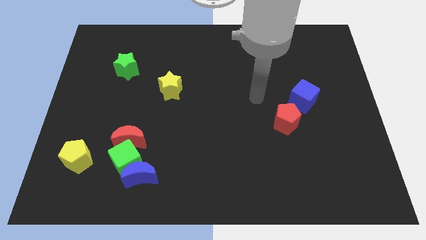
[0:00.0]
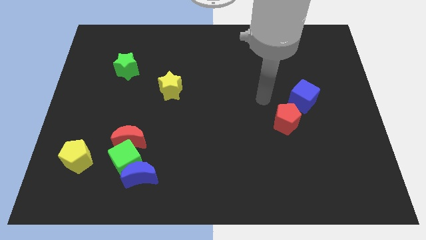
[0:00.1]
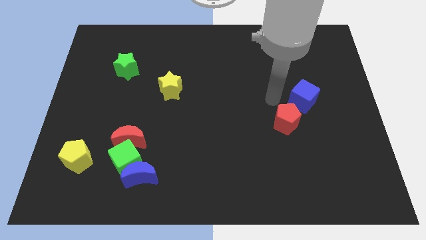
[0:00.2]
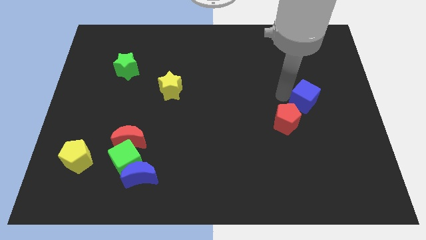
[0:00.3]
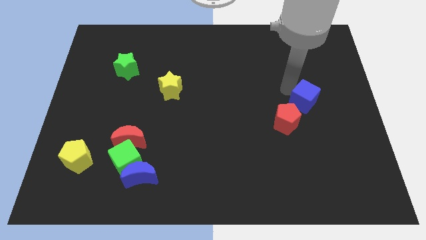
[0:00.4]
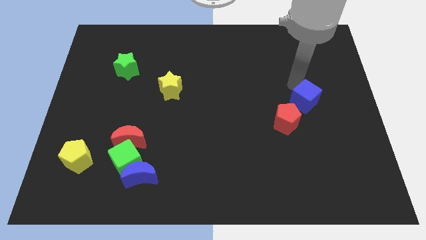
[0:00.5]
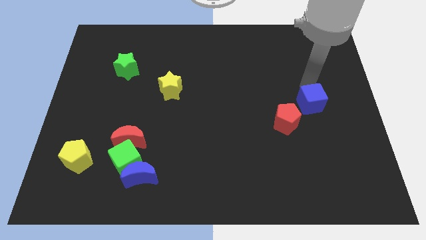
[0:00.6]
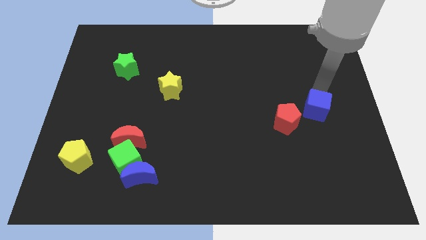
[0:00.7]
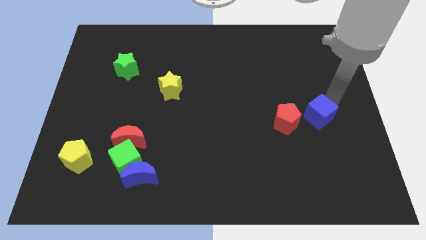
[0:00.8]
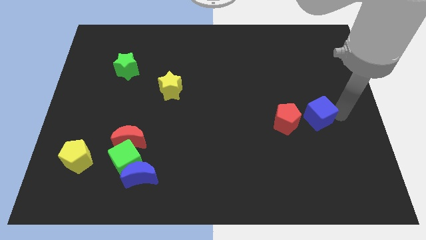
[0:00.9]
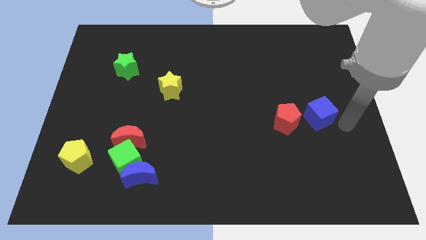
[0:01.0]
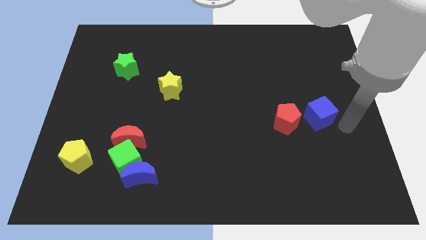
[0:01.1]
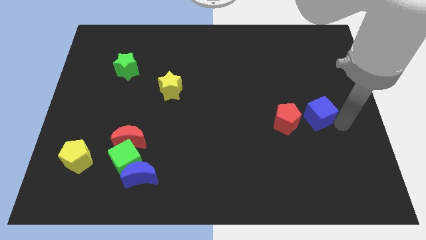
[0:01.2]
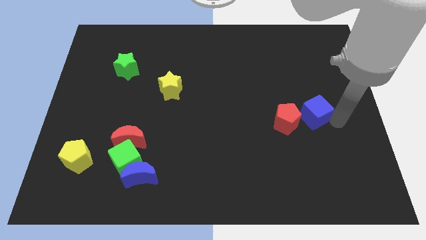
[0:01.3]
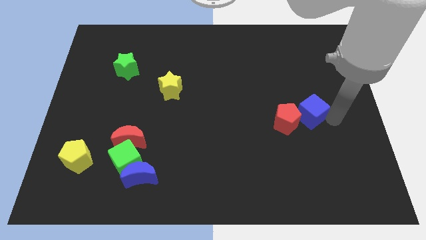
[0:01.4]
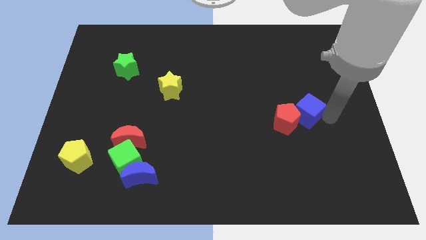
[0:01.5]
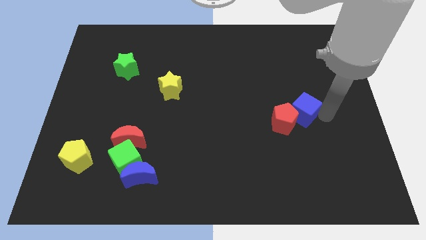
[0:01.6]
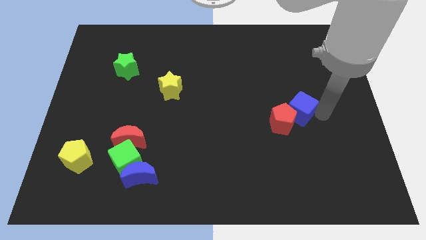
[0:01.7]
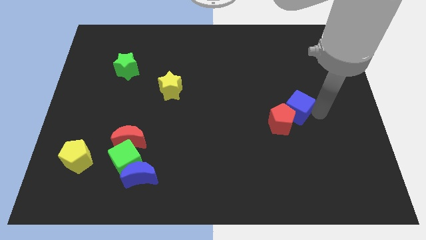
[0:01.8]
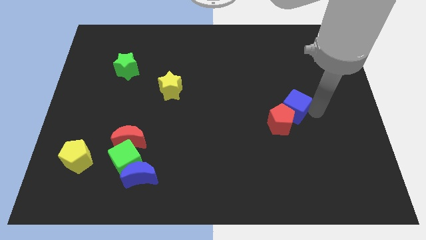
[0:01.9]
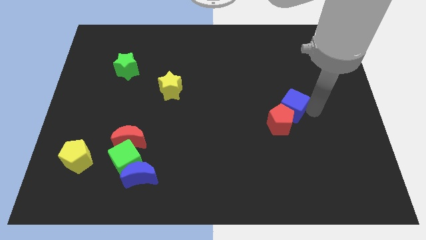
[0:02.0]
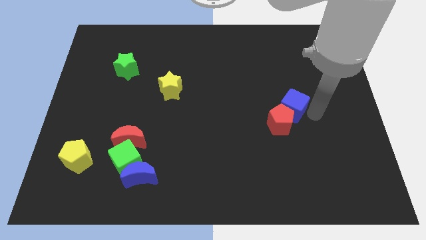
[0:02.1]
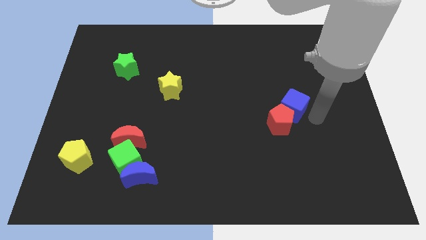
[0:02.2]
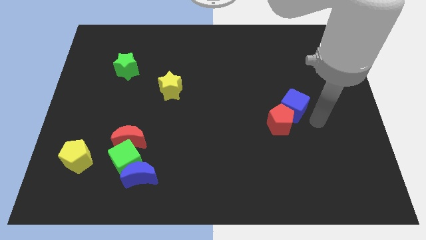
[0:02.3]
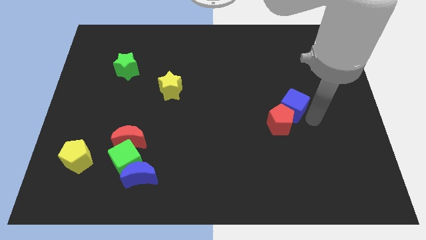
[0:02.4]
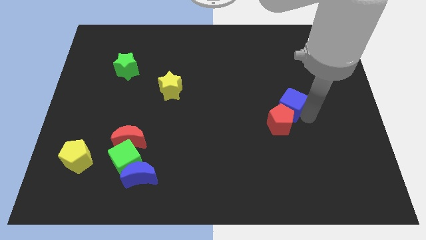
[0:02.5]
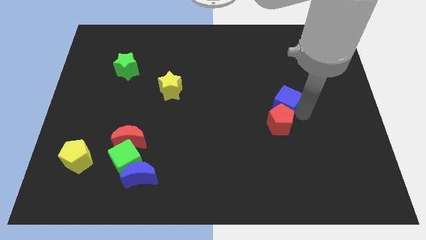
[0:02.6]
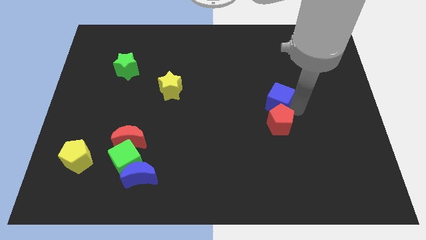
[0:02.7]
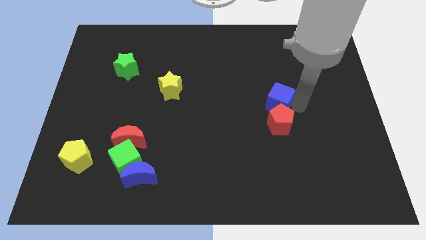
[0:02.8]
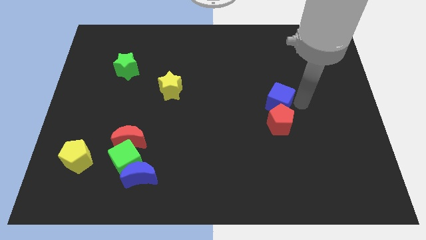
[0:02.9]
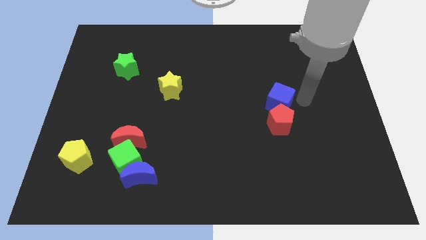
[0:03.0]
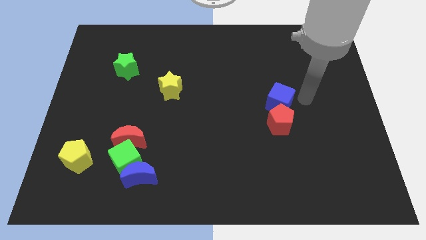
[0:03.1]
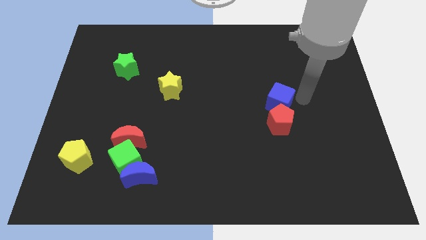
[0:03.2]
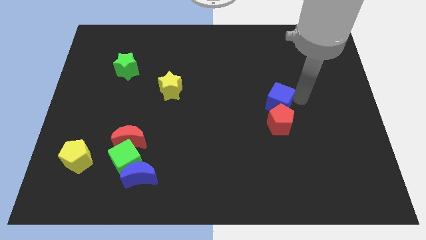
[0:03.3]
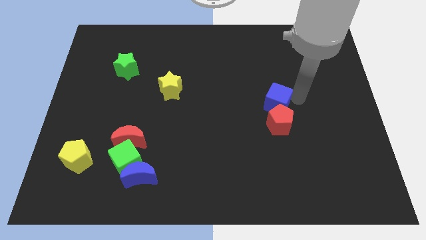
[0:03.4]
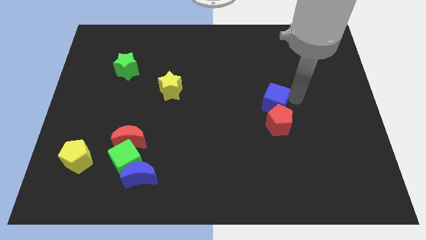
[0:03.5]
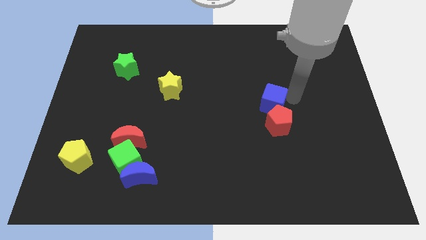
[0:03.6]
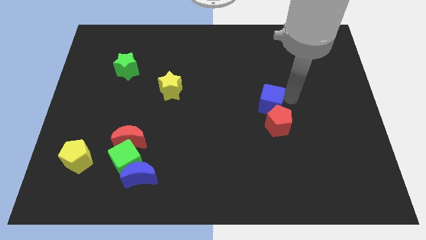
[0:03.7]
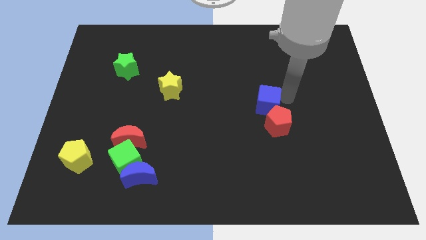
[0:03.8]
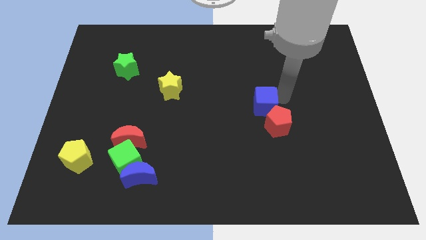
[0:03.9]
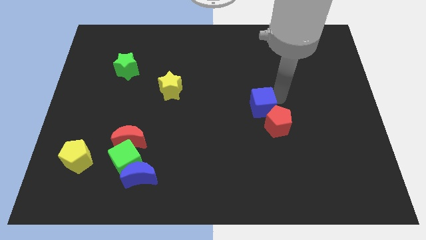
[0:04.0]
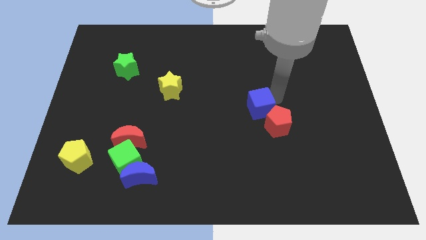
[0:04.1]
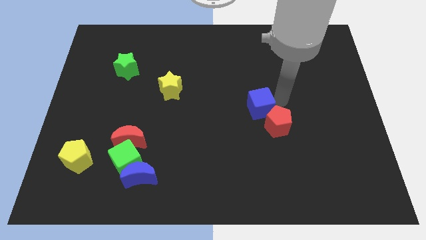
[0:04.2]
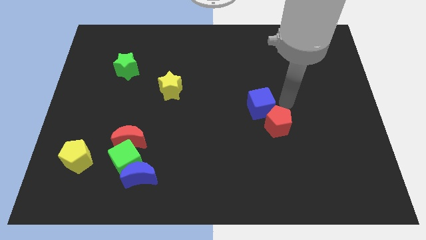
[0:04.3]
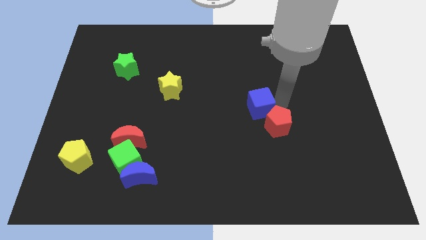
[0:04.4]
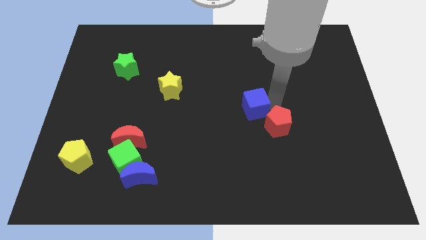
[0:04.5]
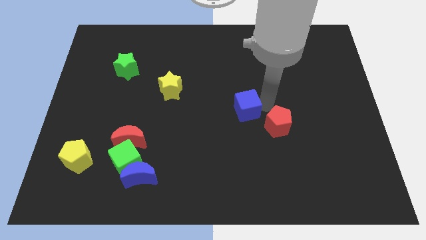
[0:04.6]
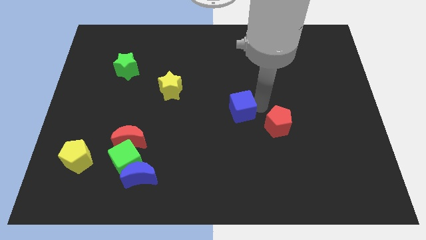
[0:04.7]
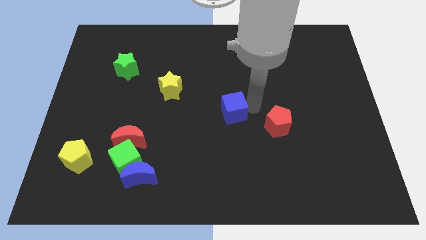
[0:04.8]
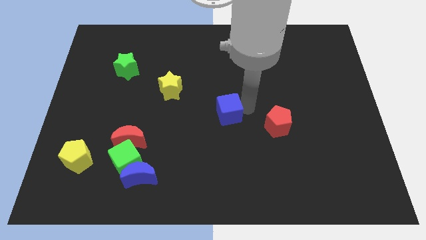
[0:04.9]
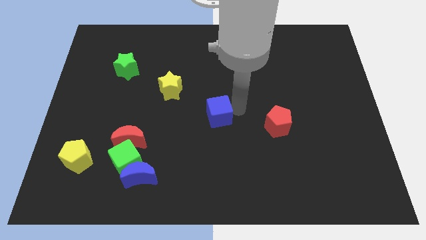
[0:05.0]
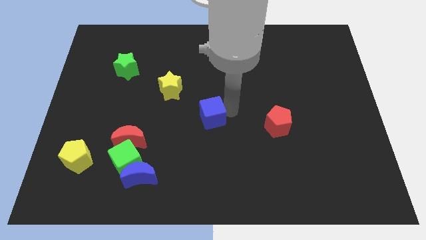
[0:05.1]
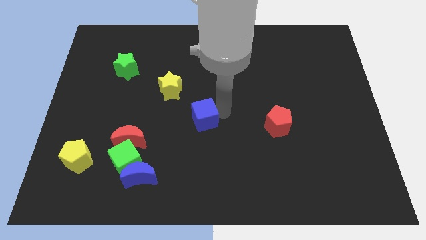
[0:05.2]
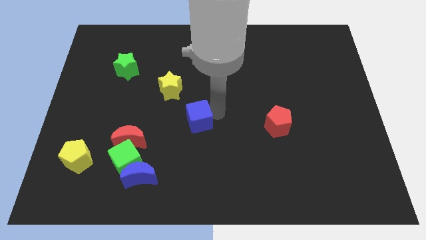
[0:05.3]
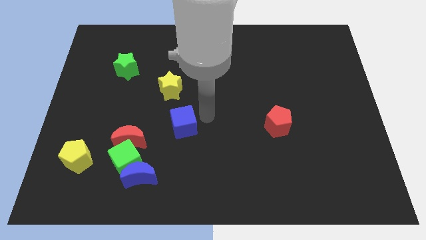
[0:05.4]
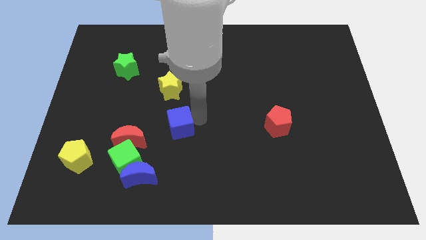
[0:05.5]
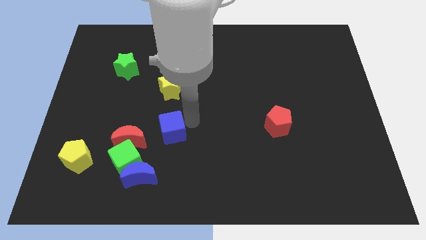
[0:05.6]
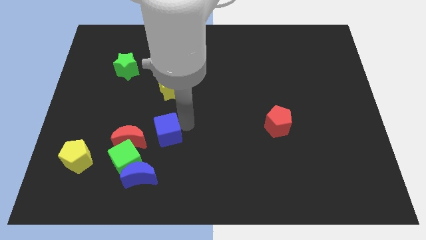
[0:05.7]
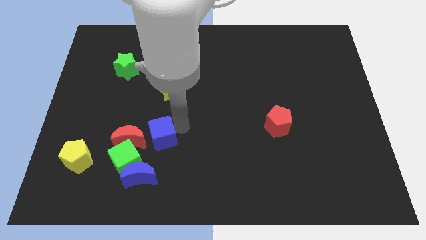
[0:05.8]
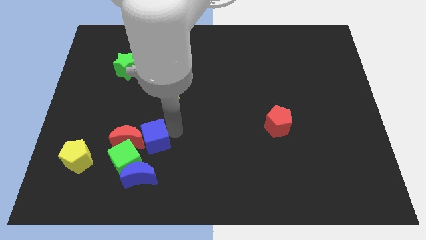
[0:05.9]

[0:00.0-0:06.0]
move the blue cube to the red moon

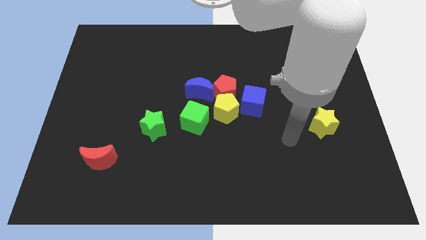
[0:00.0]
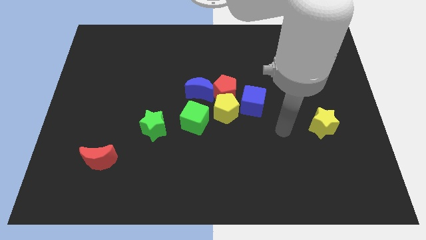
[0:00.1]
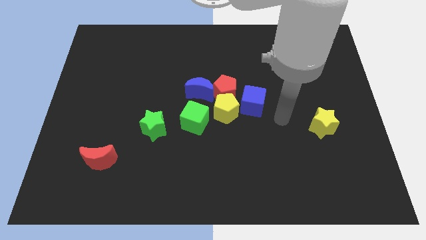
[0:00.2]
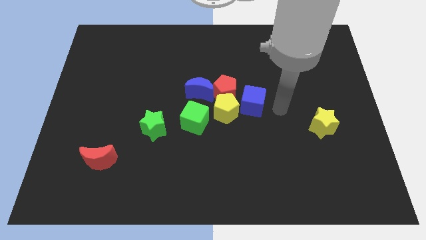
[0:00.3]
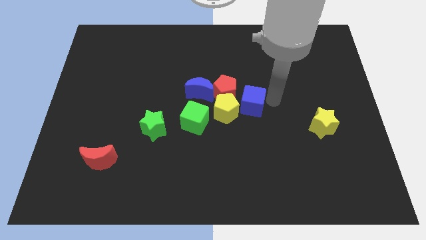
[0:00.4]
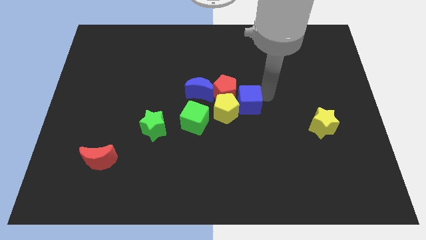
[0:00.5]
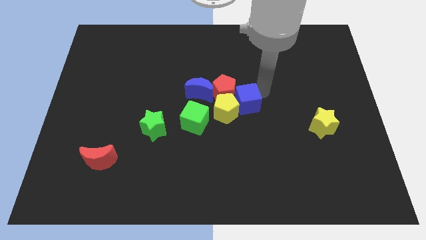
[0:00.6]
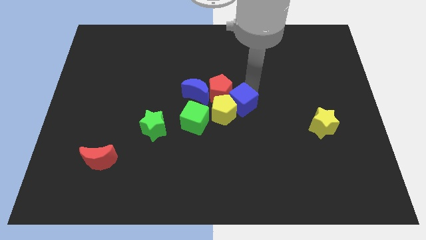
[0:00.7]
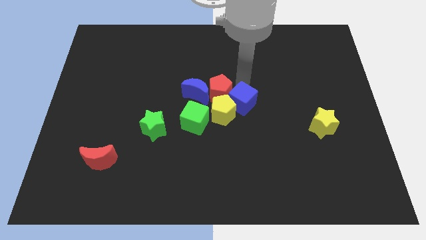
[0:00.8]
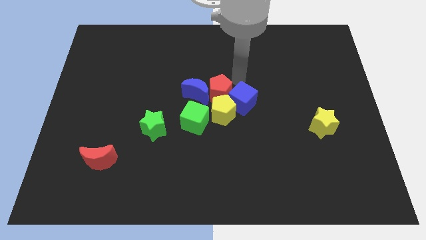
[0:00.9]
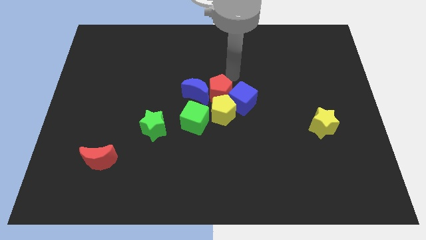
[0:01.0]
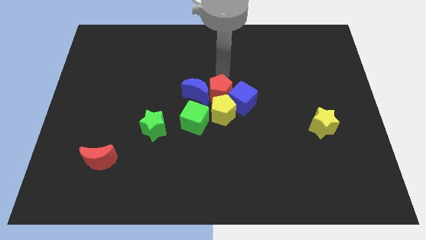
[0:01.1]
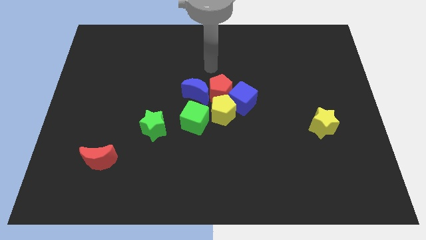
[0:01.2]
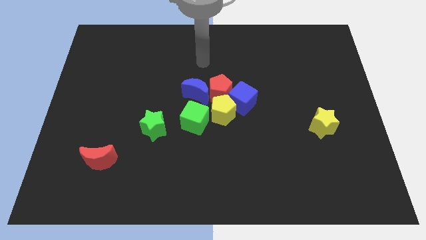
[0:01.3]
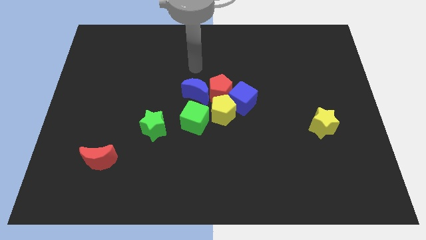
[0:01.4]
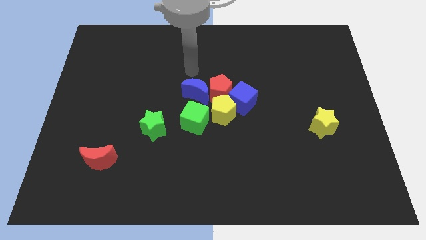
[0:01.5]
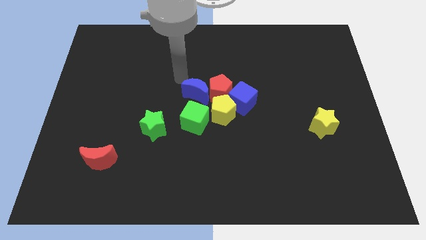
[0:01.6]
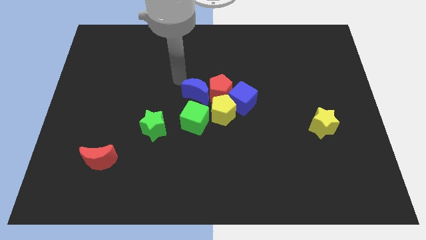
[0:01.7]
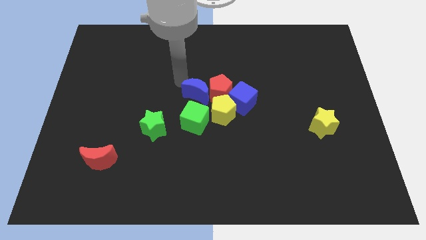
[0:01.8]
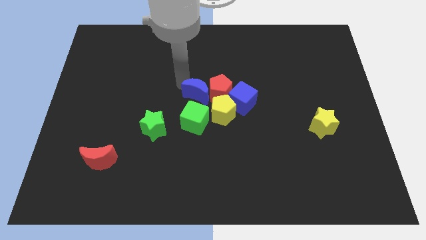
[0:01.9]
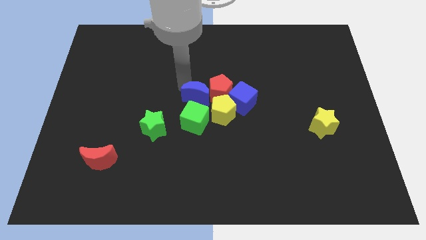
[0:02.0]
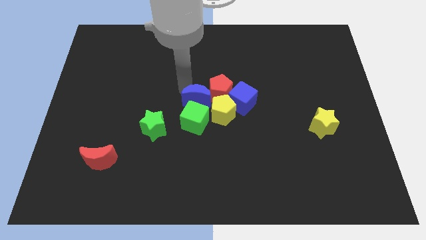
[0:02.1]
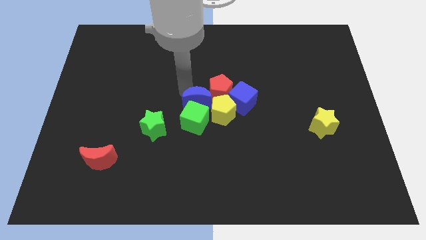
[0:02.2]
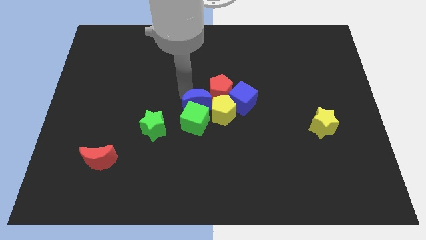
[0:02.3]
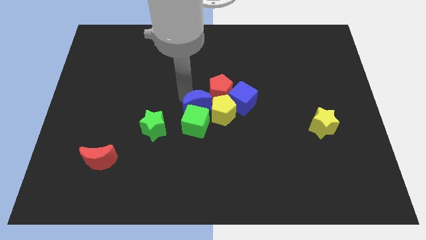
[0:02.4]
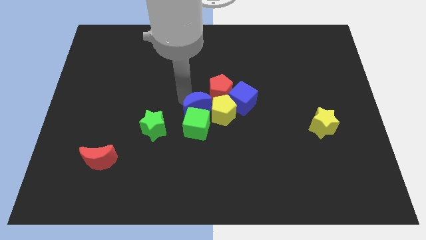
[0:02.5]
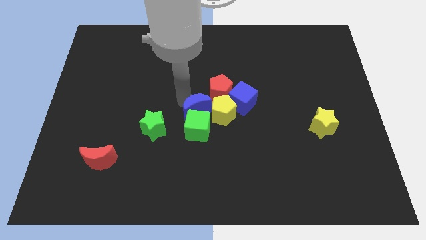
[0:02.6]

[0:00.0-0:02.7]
push the blue moon close to the yellow pentagon
